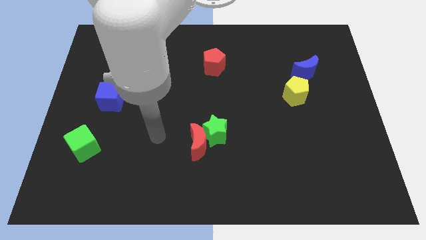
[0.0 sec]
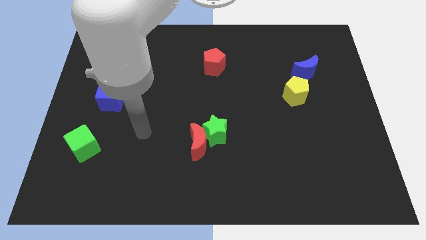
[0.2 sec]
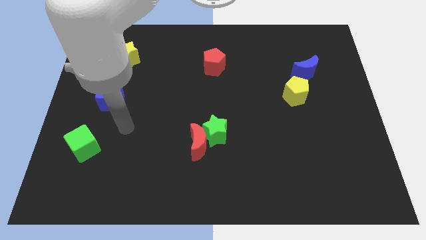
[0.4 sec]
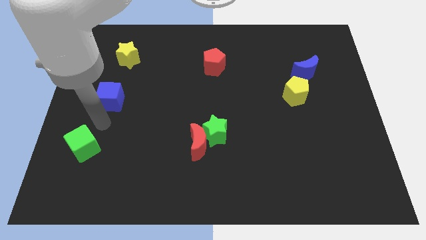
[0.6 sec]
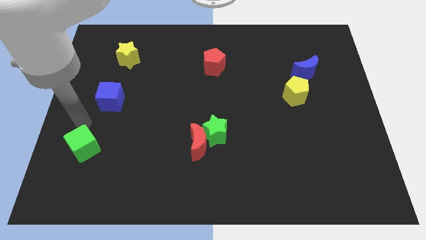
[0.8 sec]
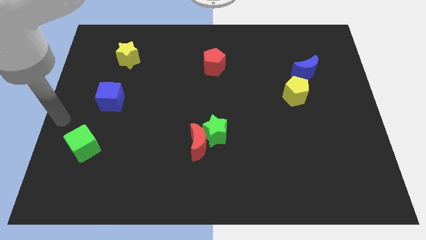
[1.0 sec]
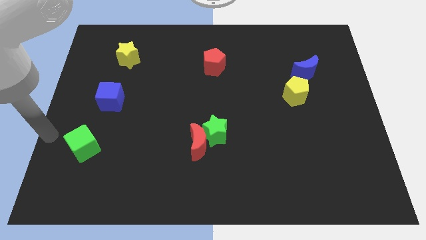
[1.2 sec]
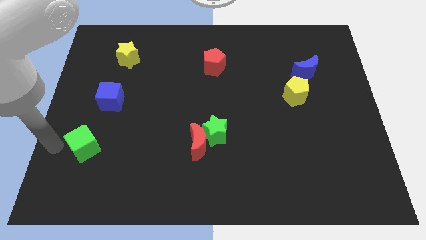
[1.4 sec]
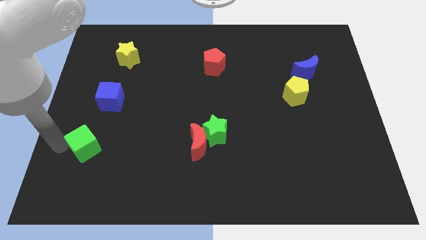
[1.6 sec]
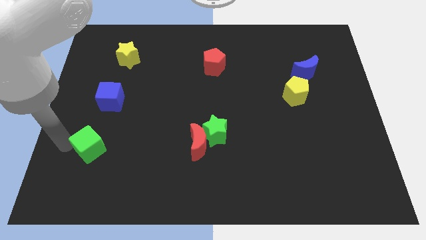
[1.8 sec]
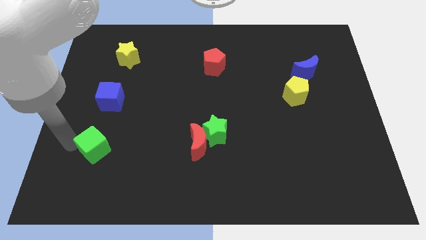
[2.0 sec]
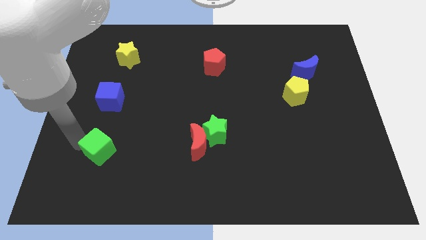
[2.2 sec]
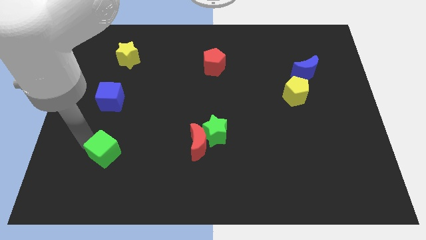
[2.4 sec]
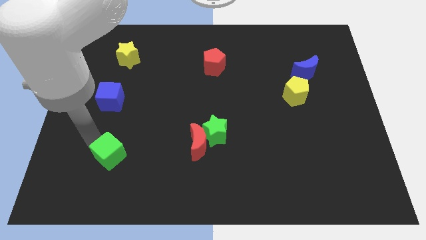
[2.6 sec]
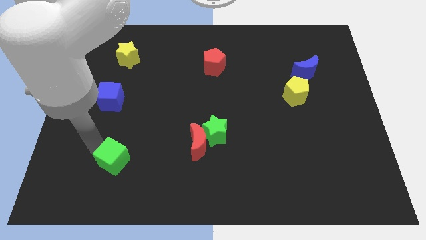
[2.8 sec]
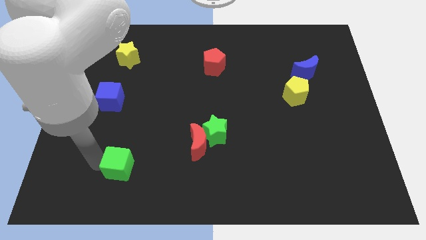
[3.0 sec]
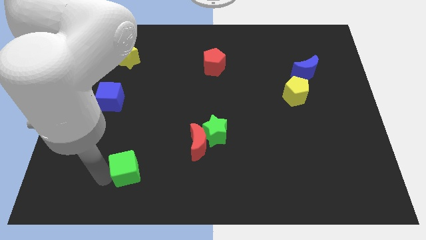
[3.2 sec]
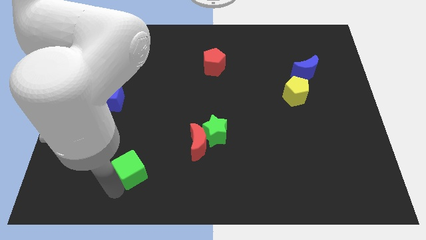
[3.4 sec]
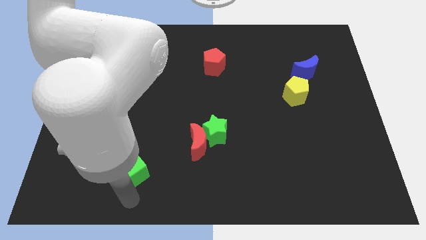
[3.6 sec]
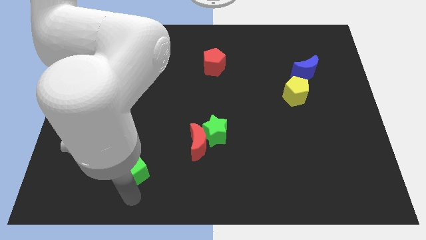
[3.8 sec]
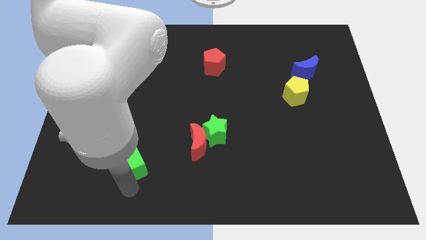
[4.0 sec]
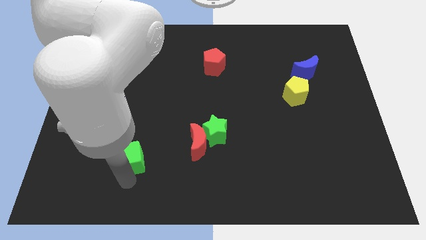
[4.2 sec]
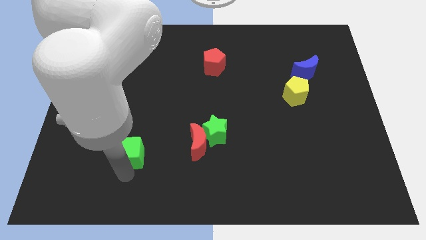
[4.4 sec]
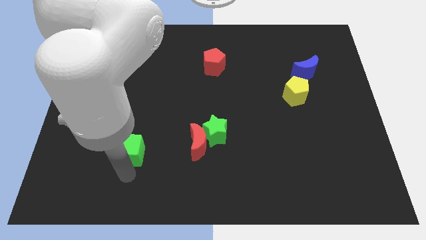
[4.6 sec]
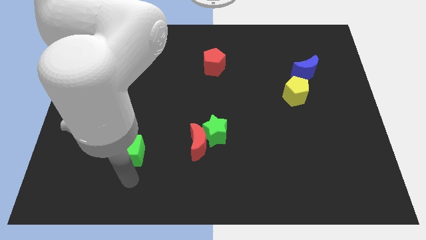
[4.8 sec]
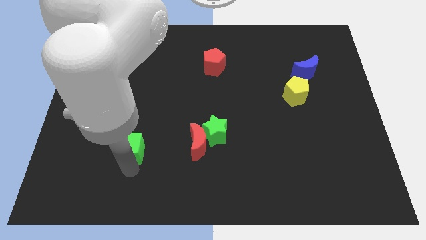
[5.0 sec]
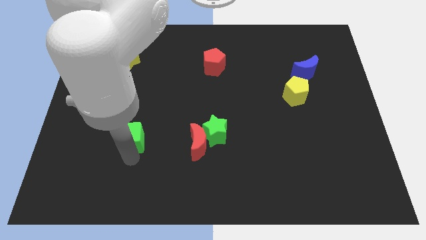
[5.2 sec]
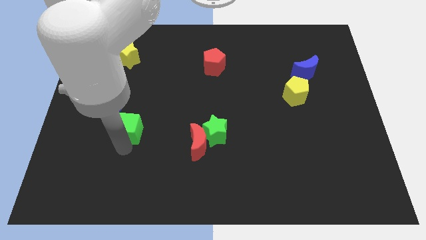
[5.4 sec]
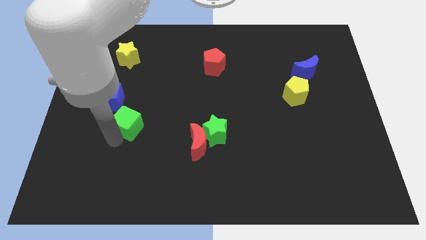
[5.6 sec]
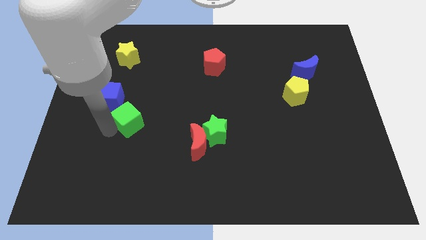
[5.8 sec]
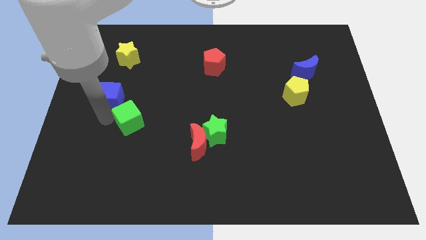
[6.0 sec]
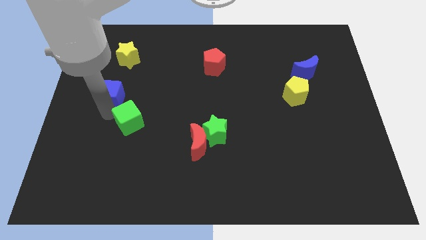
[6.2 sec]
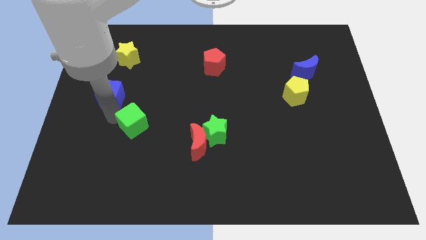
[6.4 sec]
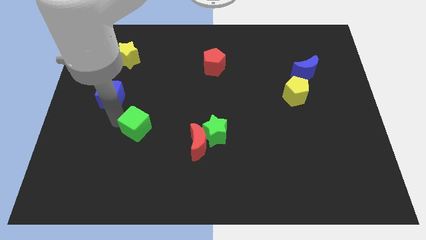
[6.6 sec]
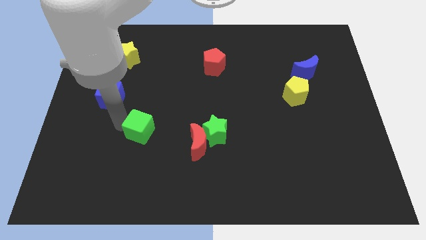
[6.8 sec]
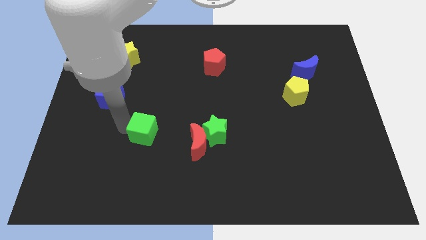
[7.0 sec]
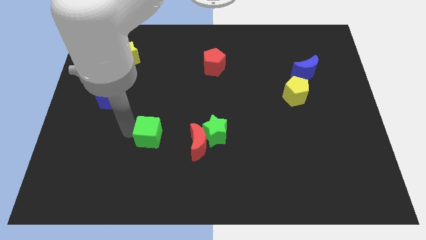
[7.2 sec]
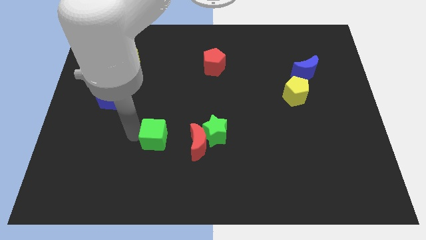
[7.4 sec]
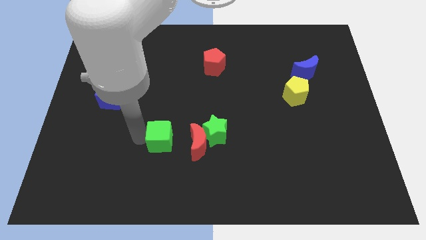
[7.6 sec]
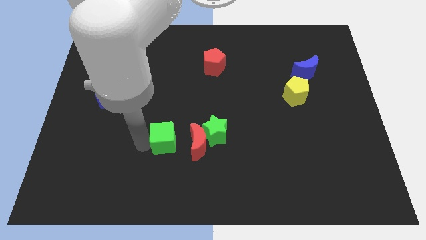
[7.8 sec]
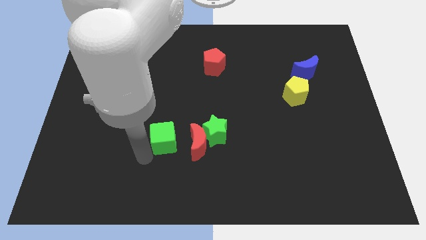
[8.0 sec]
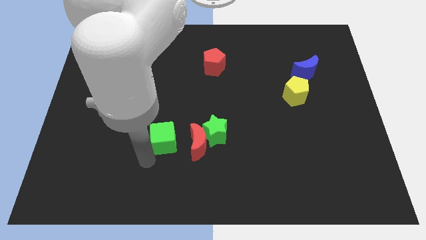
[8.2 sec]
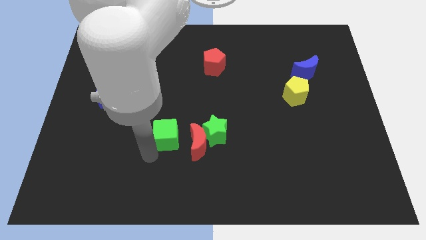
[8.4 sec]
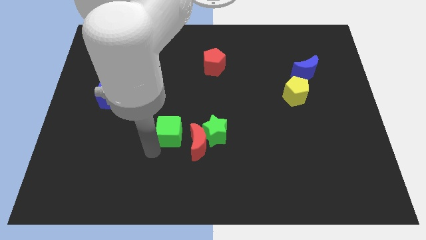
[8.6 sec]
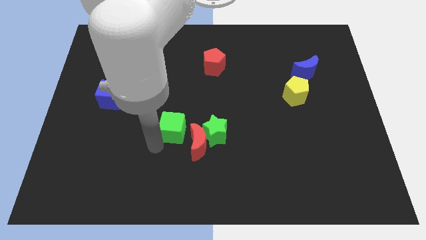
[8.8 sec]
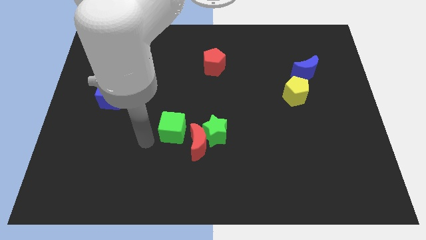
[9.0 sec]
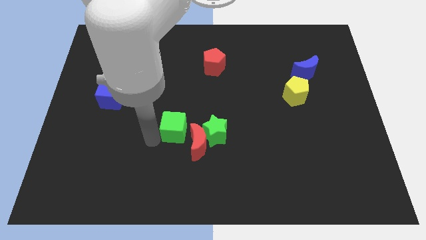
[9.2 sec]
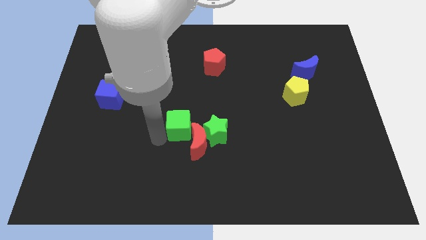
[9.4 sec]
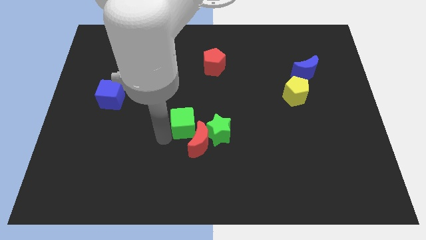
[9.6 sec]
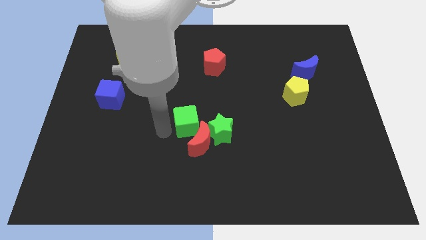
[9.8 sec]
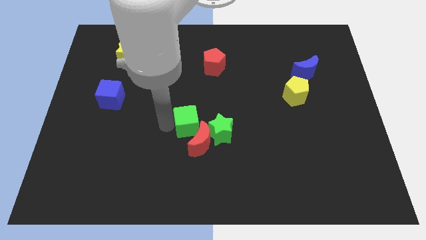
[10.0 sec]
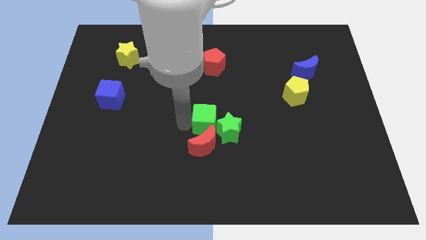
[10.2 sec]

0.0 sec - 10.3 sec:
put the green cube diagonally up and to the right of the red moon

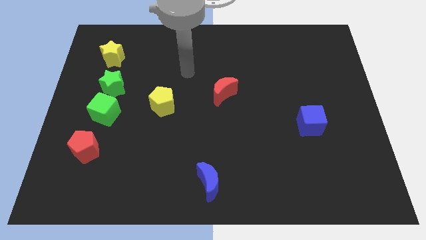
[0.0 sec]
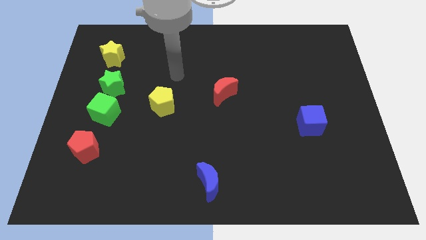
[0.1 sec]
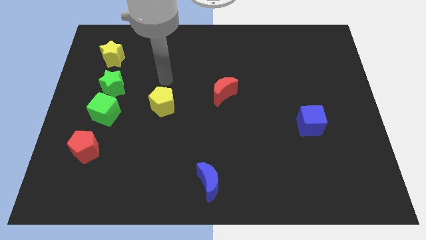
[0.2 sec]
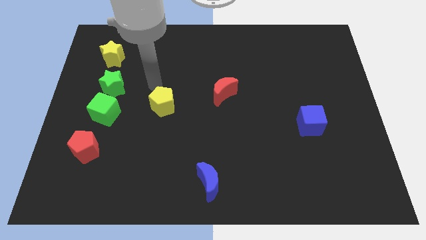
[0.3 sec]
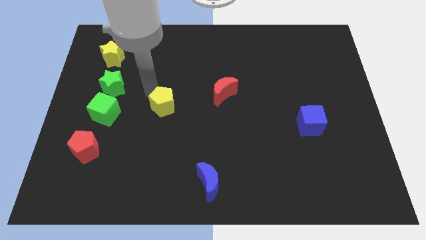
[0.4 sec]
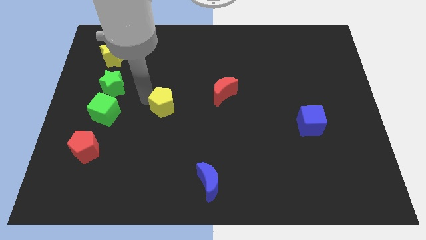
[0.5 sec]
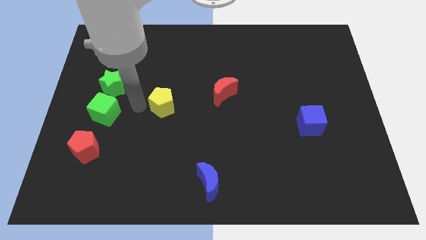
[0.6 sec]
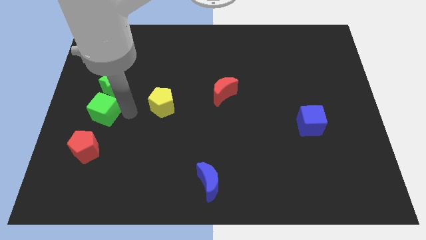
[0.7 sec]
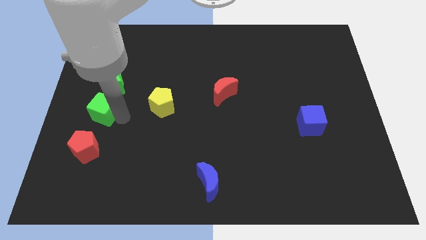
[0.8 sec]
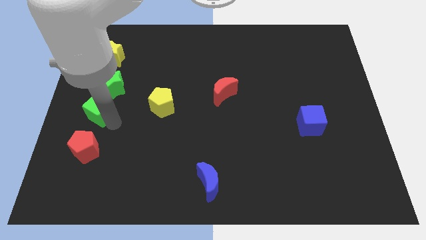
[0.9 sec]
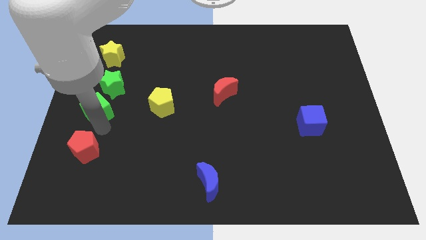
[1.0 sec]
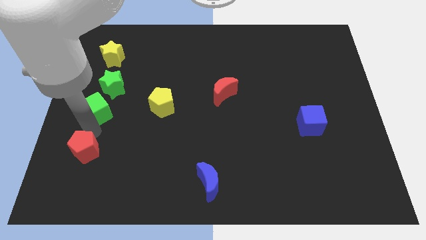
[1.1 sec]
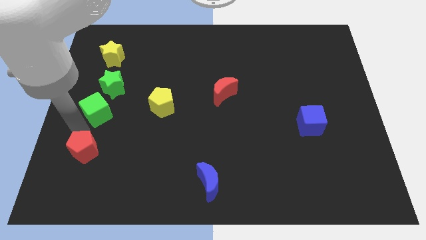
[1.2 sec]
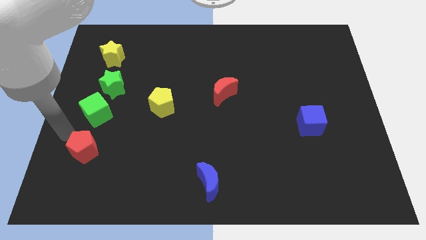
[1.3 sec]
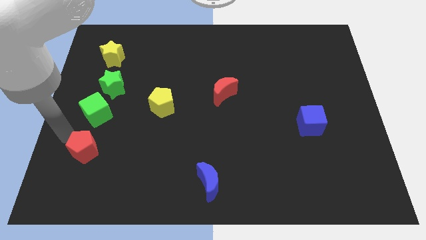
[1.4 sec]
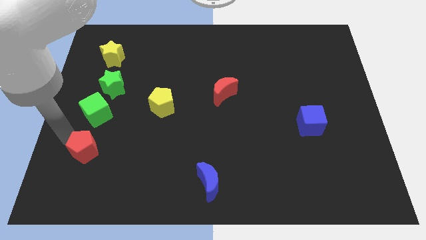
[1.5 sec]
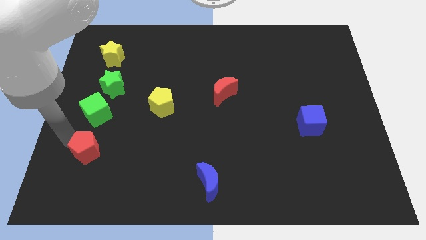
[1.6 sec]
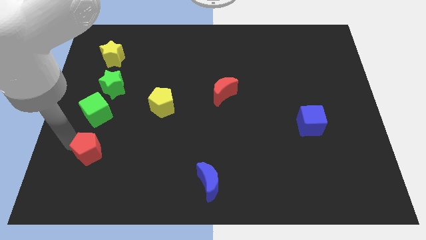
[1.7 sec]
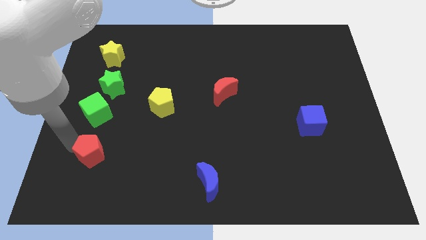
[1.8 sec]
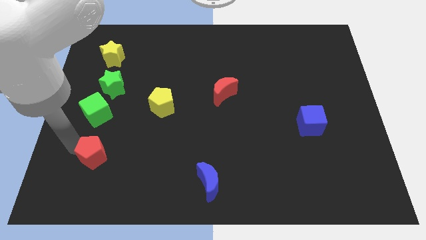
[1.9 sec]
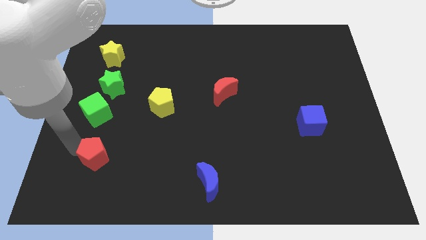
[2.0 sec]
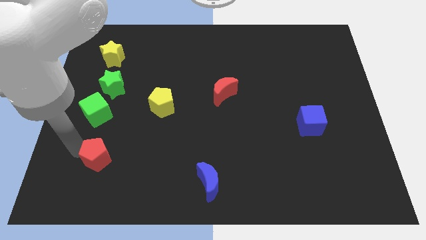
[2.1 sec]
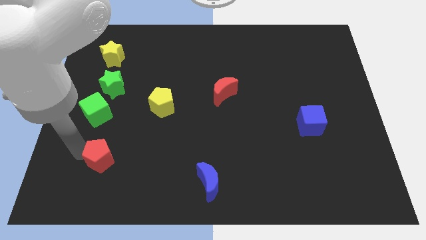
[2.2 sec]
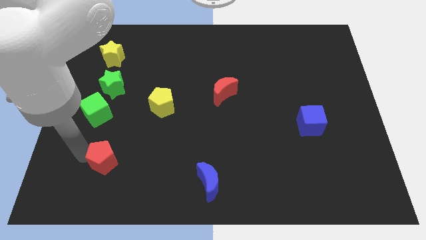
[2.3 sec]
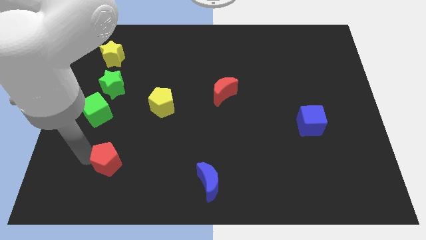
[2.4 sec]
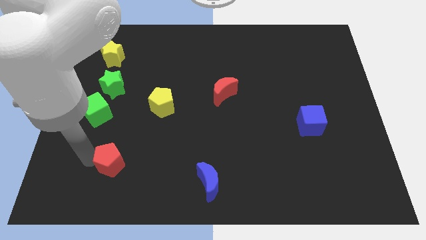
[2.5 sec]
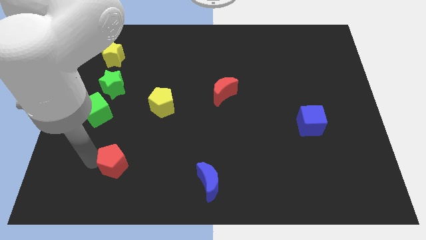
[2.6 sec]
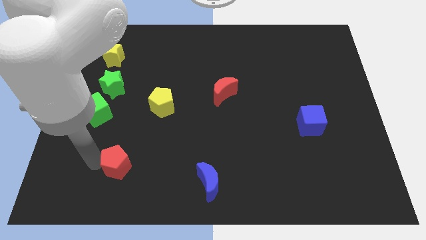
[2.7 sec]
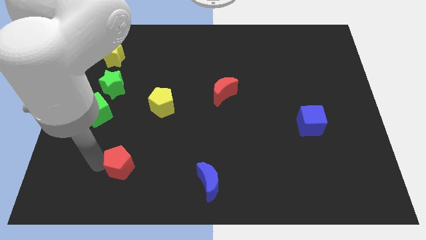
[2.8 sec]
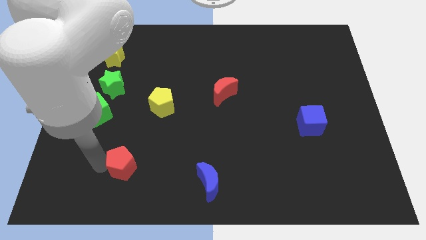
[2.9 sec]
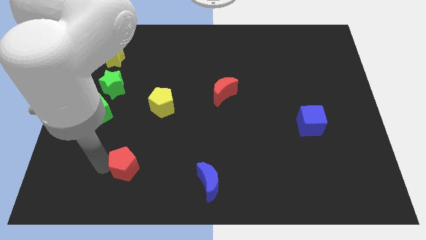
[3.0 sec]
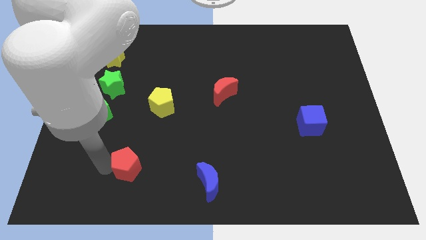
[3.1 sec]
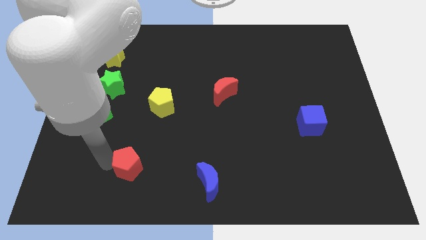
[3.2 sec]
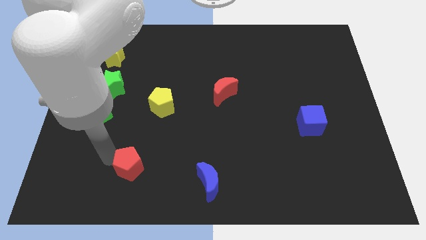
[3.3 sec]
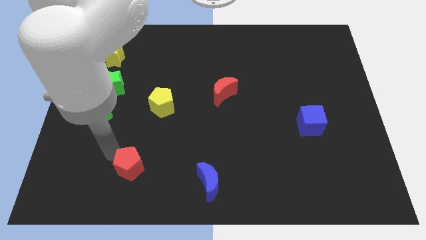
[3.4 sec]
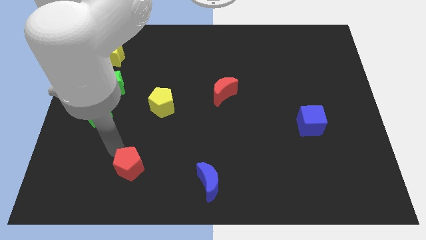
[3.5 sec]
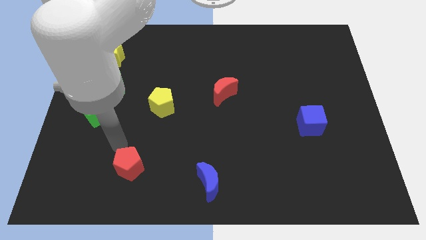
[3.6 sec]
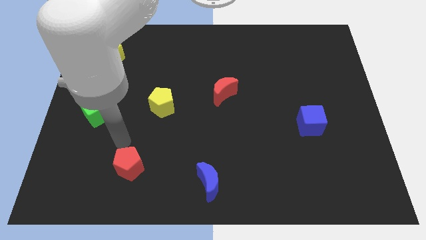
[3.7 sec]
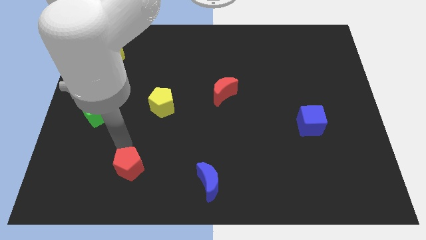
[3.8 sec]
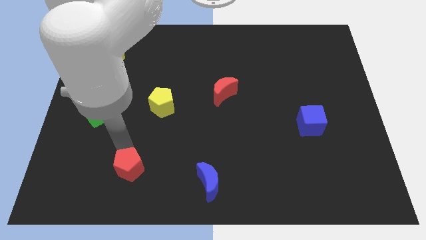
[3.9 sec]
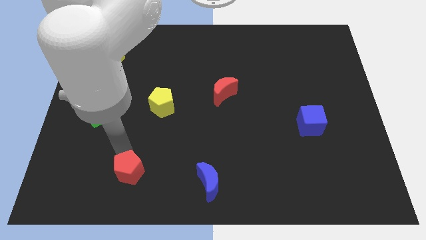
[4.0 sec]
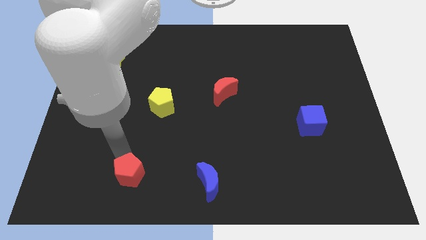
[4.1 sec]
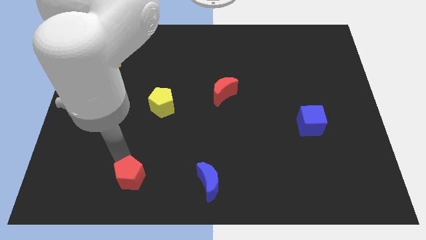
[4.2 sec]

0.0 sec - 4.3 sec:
push the red pentagon to the left side of the blue moon
